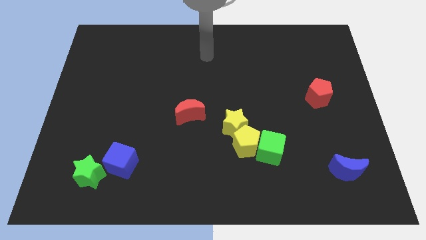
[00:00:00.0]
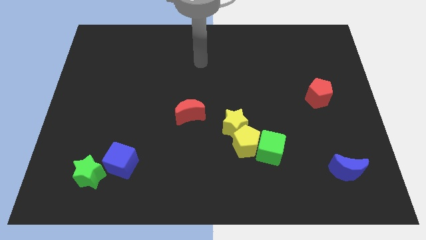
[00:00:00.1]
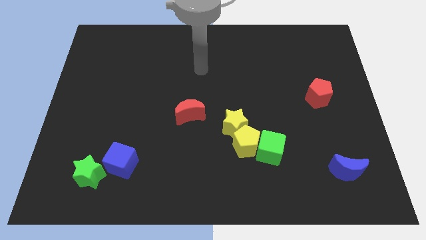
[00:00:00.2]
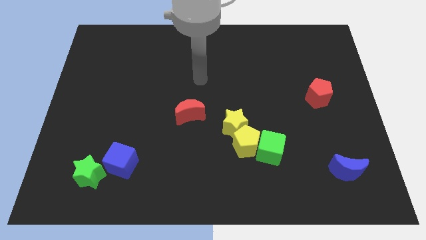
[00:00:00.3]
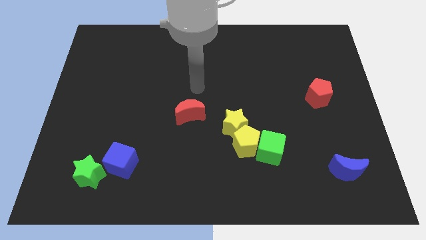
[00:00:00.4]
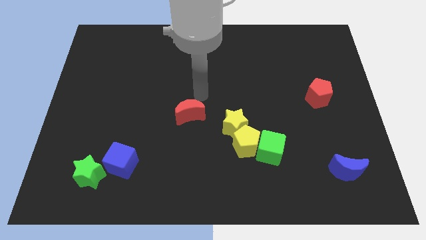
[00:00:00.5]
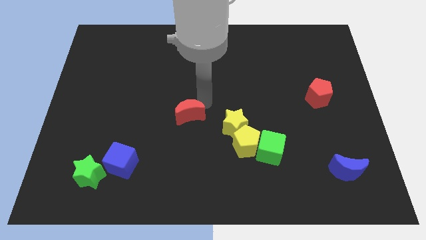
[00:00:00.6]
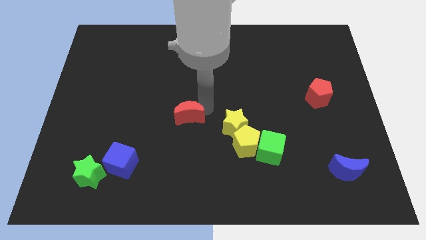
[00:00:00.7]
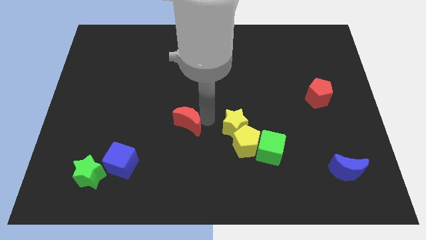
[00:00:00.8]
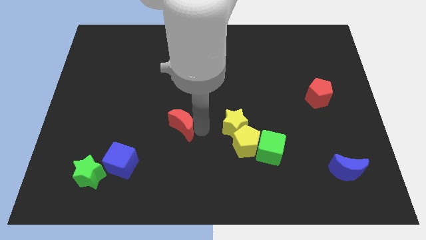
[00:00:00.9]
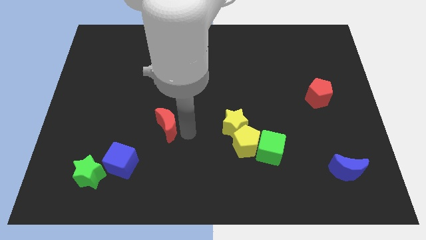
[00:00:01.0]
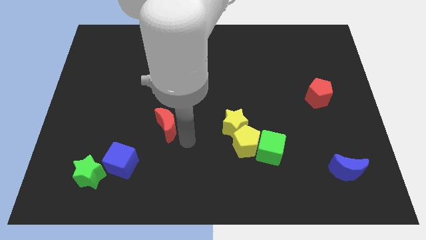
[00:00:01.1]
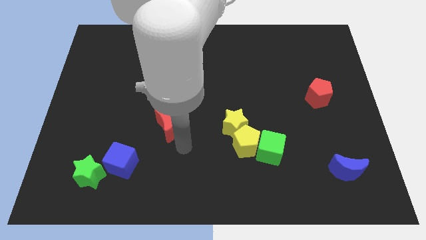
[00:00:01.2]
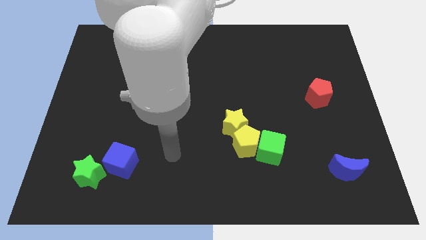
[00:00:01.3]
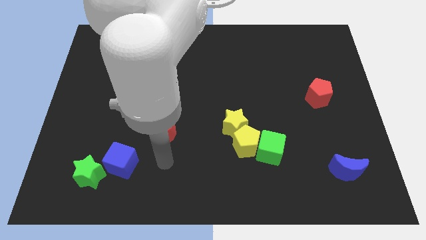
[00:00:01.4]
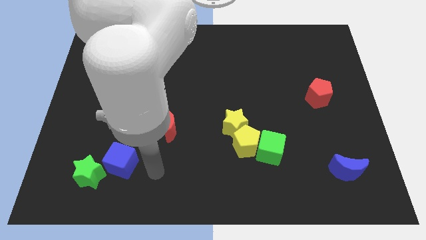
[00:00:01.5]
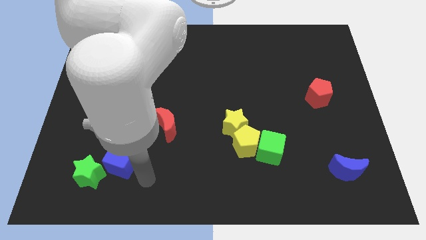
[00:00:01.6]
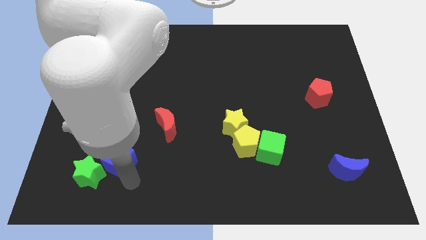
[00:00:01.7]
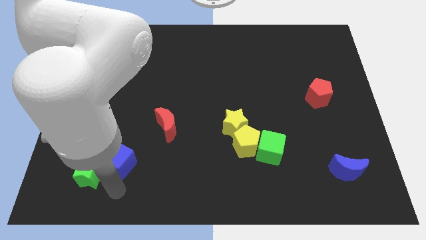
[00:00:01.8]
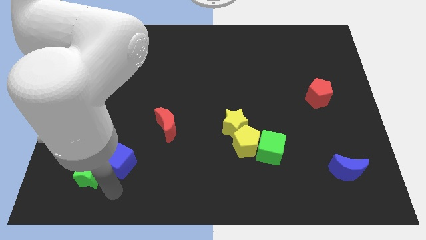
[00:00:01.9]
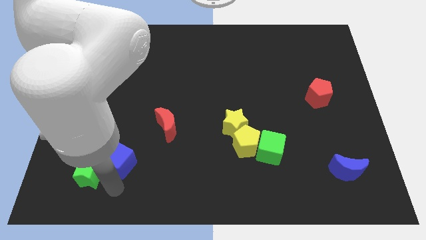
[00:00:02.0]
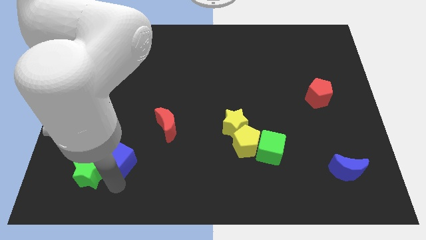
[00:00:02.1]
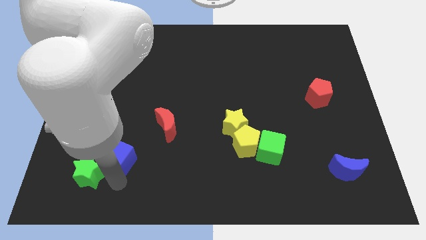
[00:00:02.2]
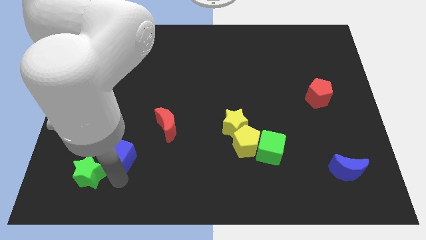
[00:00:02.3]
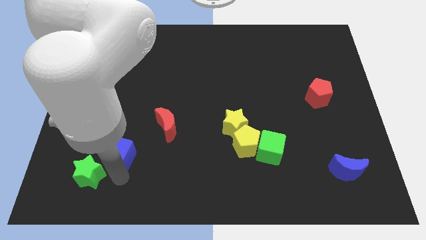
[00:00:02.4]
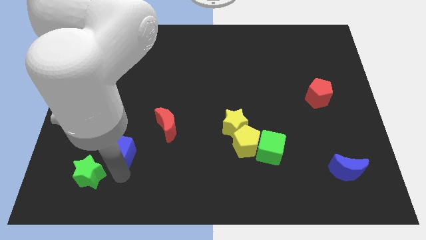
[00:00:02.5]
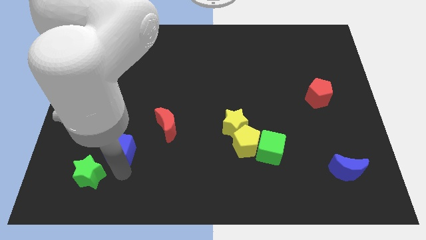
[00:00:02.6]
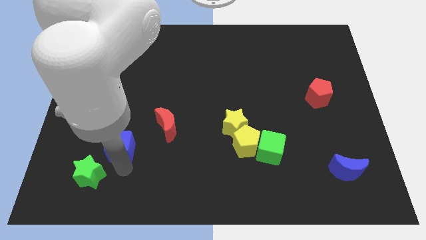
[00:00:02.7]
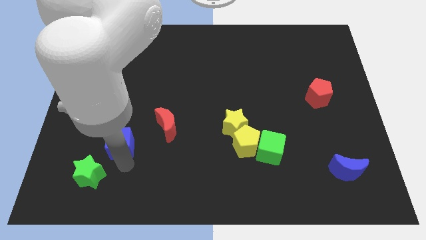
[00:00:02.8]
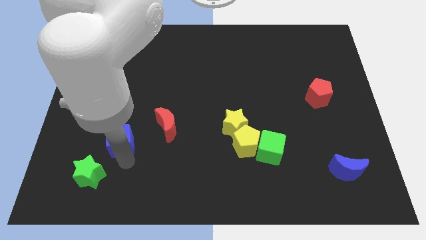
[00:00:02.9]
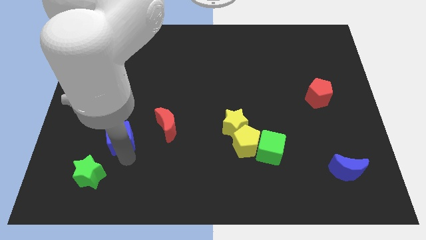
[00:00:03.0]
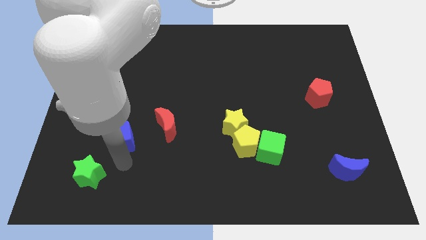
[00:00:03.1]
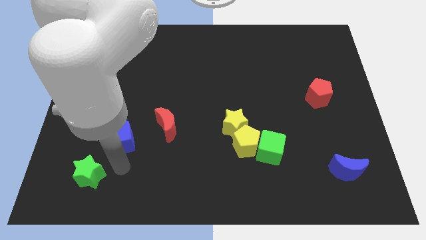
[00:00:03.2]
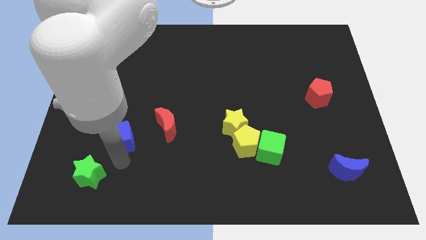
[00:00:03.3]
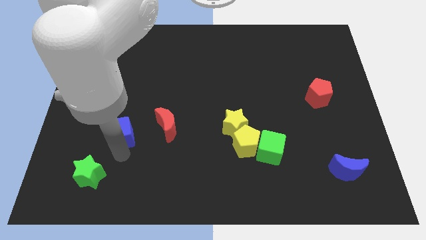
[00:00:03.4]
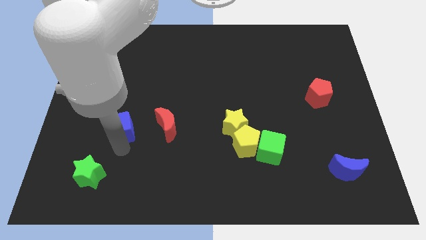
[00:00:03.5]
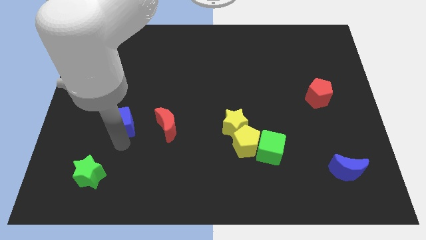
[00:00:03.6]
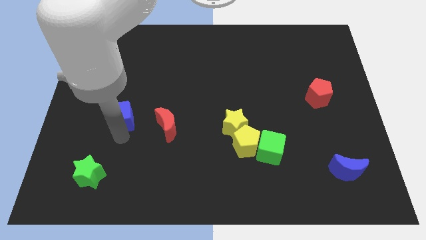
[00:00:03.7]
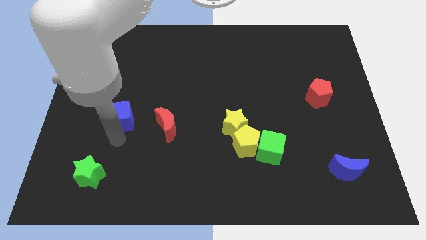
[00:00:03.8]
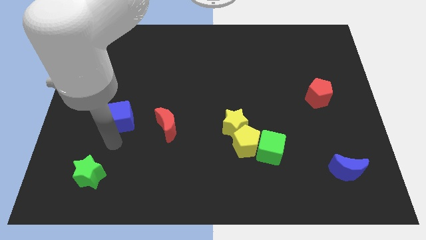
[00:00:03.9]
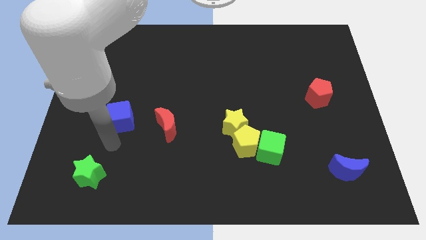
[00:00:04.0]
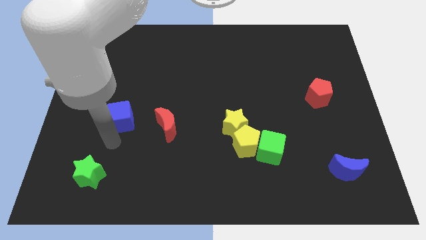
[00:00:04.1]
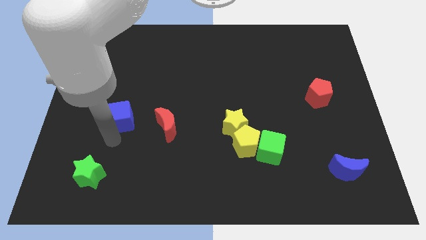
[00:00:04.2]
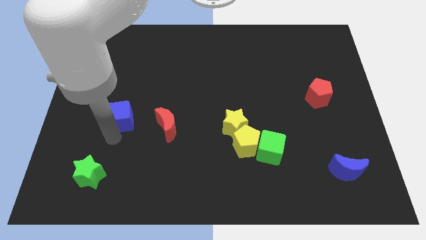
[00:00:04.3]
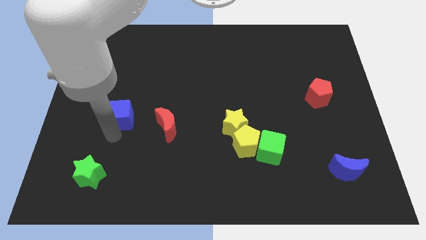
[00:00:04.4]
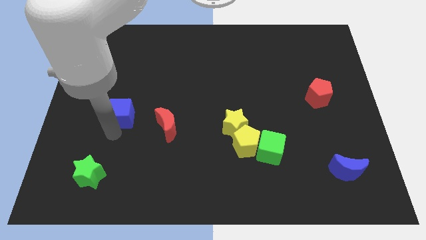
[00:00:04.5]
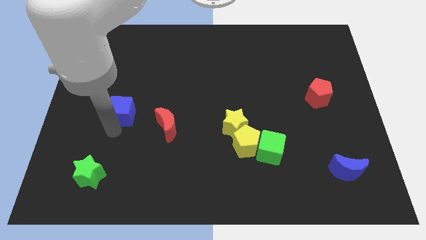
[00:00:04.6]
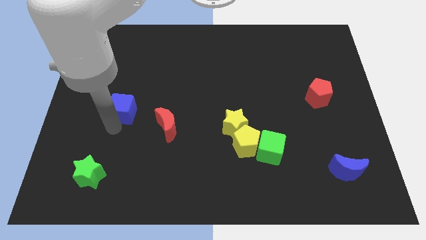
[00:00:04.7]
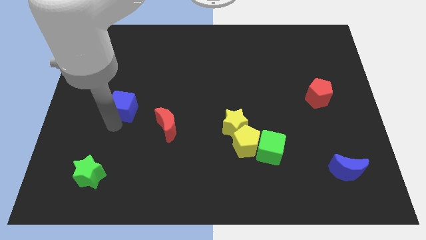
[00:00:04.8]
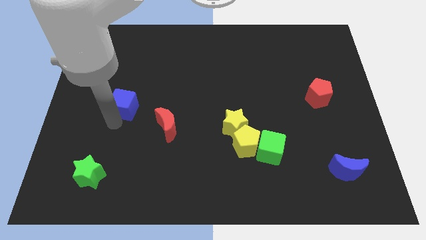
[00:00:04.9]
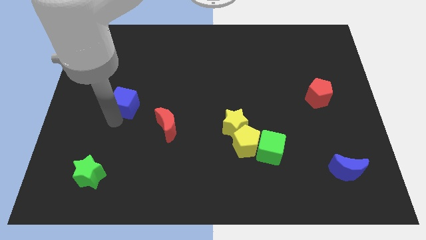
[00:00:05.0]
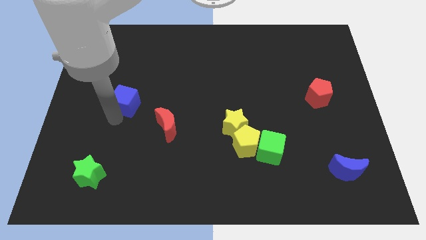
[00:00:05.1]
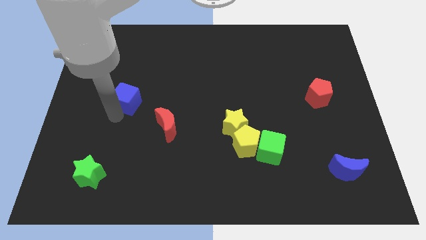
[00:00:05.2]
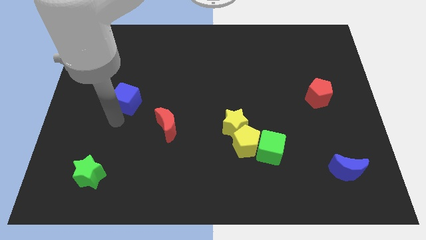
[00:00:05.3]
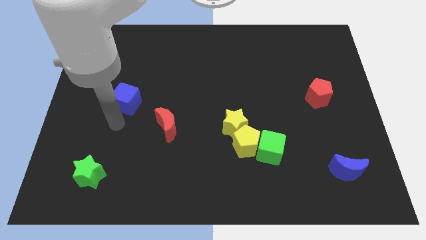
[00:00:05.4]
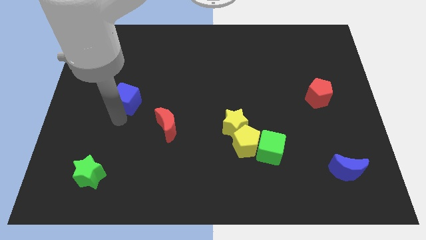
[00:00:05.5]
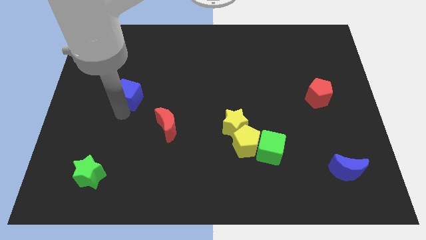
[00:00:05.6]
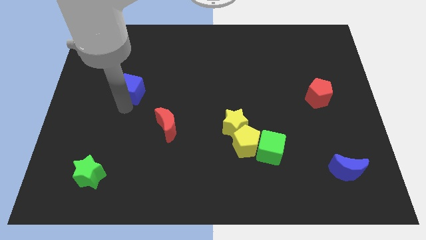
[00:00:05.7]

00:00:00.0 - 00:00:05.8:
push the blue cube up

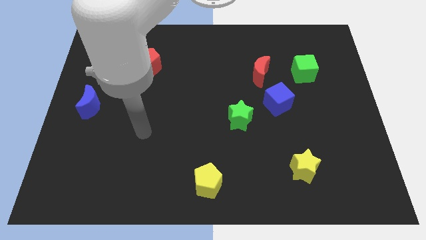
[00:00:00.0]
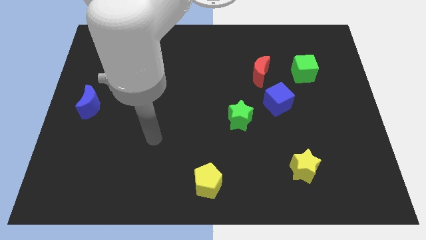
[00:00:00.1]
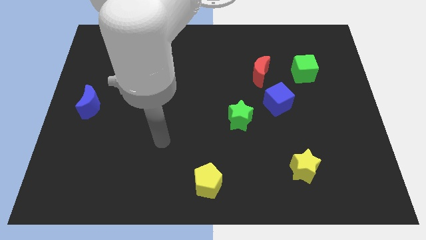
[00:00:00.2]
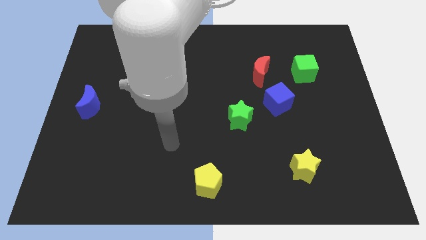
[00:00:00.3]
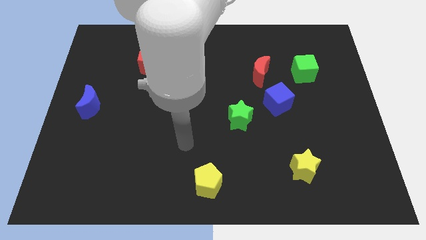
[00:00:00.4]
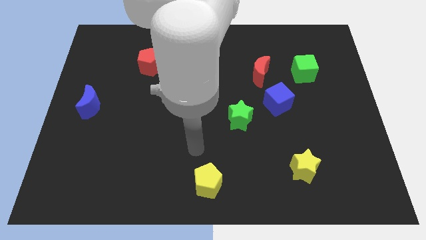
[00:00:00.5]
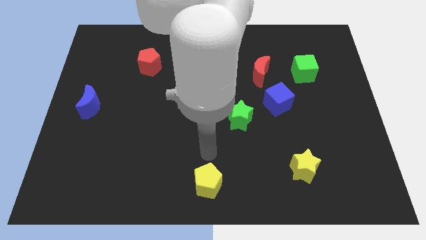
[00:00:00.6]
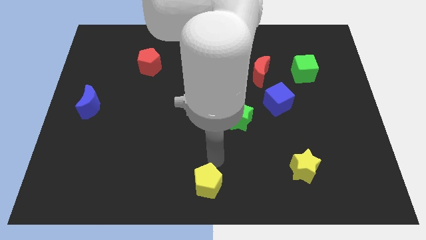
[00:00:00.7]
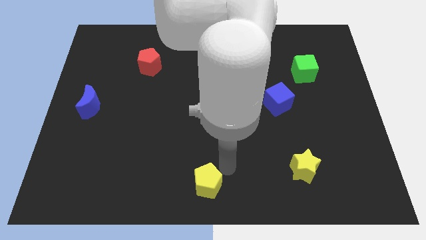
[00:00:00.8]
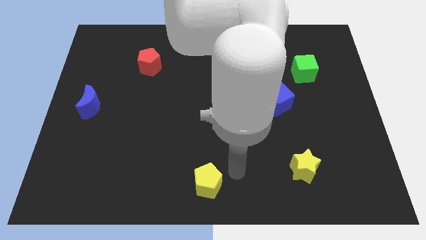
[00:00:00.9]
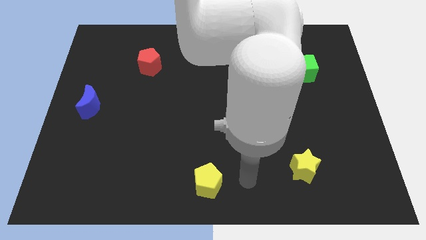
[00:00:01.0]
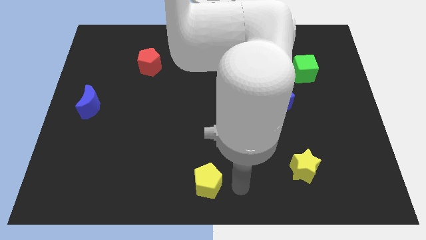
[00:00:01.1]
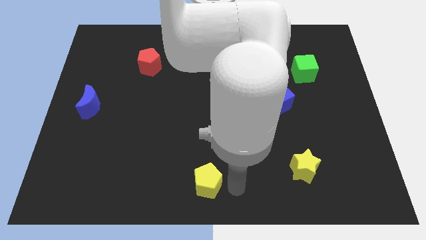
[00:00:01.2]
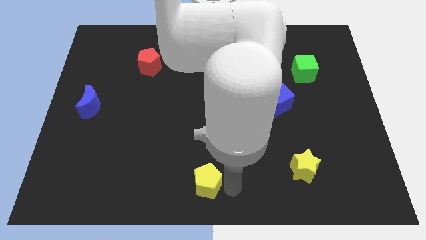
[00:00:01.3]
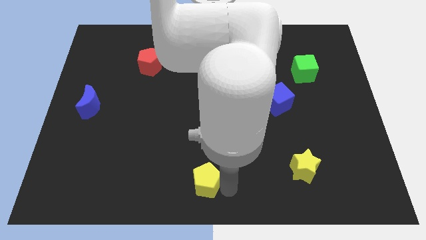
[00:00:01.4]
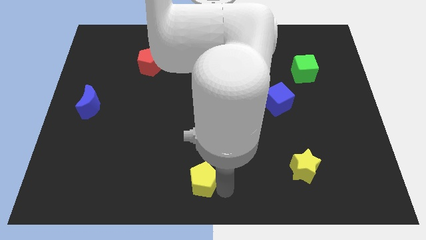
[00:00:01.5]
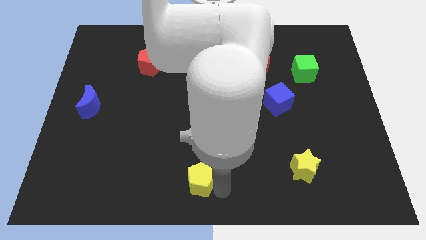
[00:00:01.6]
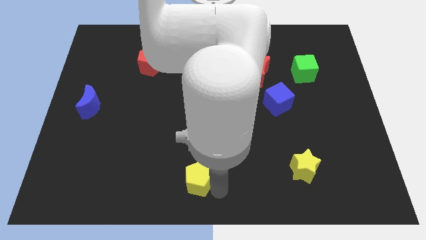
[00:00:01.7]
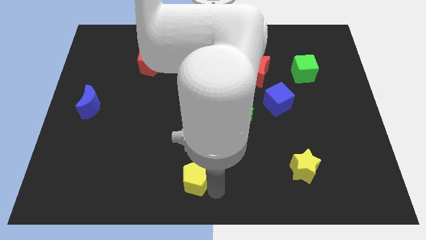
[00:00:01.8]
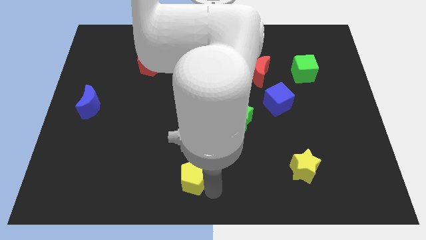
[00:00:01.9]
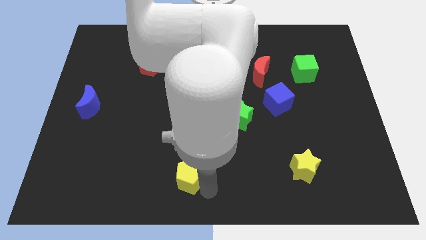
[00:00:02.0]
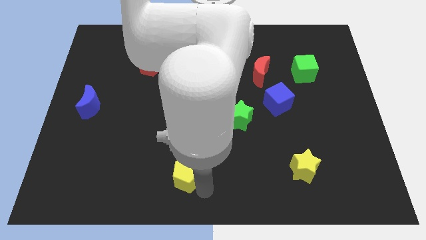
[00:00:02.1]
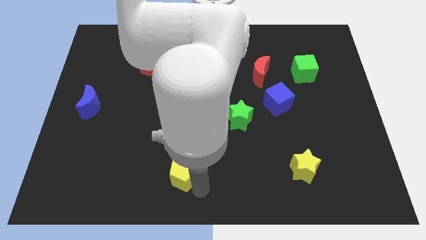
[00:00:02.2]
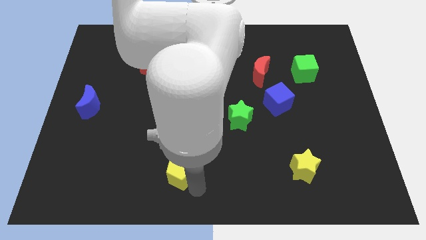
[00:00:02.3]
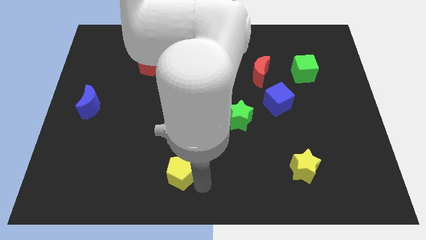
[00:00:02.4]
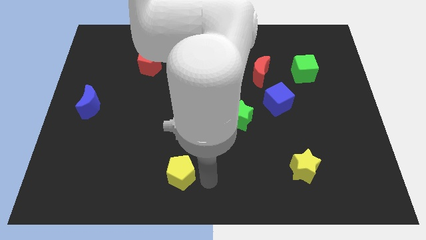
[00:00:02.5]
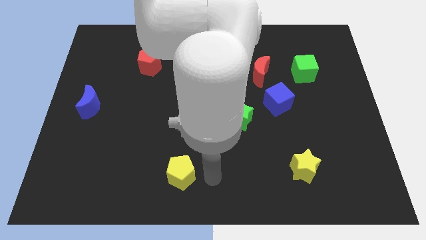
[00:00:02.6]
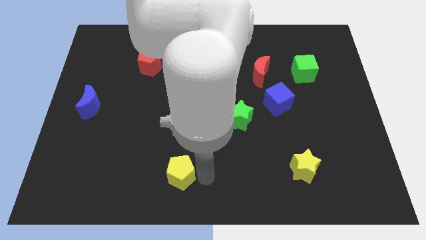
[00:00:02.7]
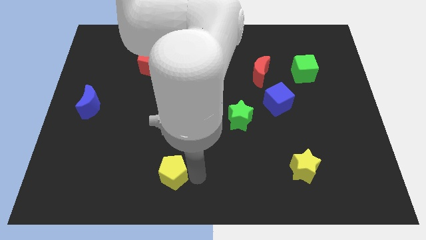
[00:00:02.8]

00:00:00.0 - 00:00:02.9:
slide the yellow pentagon a little left
